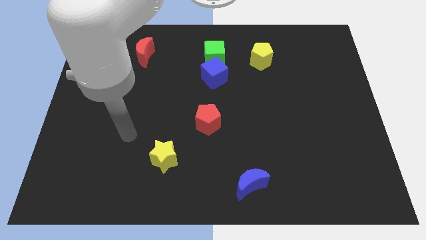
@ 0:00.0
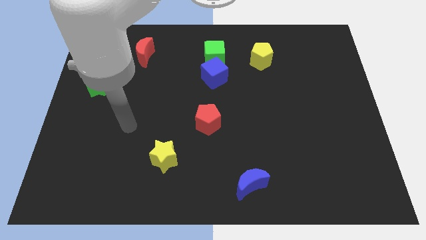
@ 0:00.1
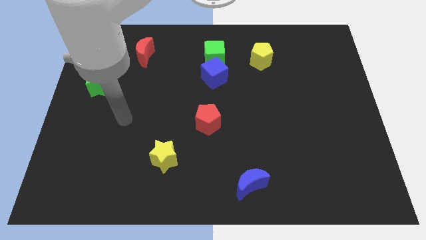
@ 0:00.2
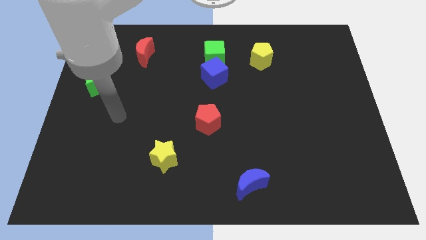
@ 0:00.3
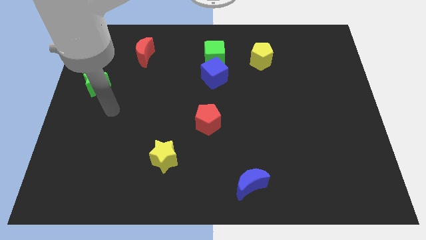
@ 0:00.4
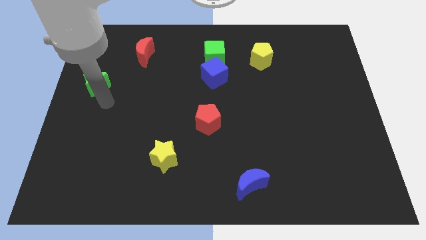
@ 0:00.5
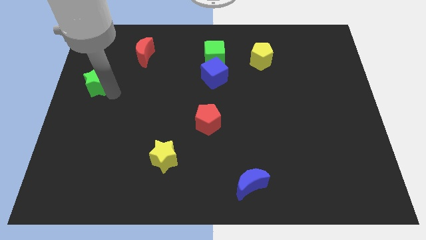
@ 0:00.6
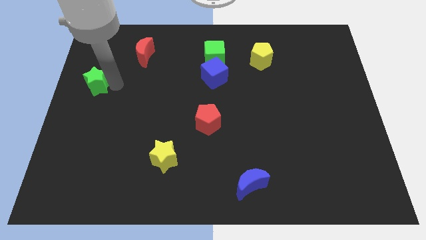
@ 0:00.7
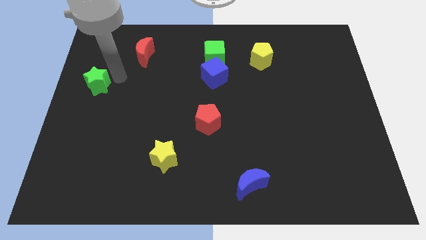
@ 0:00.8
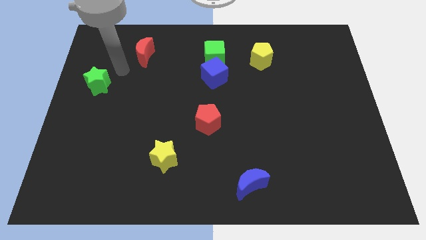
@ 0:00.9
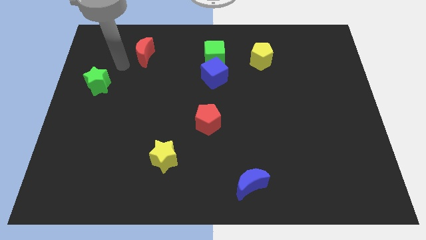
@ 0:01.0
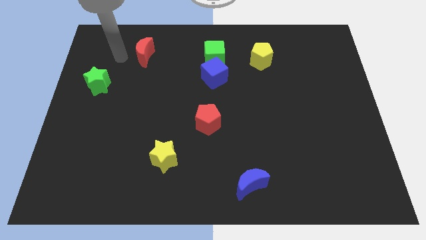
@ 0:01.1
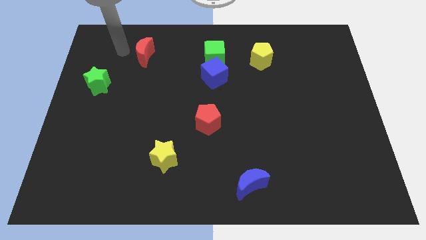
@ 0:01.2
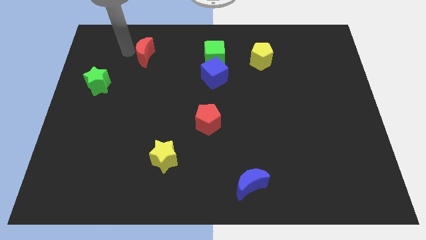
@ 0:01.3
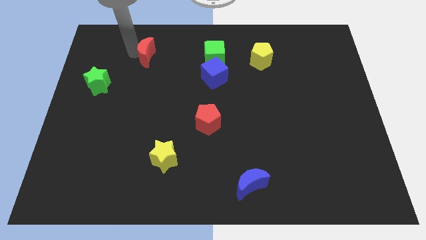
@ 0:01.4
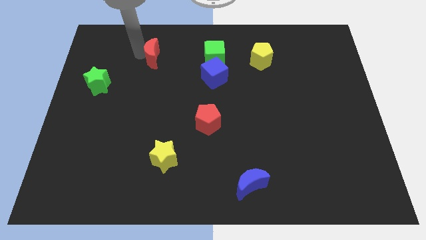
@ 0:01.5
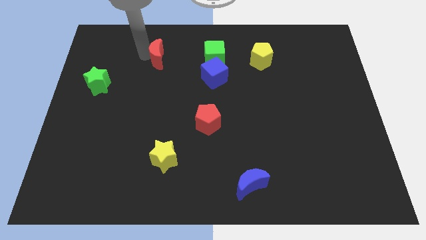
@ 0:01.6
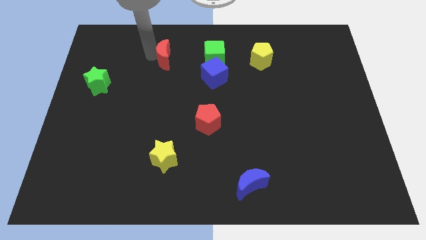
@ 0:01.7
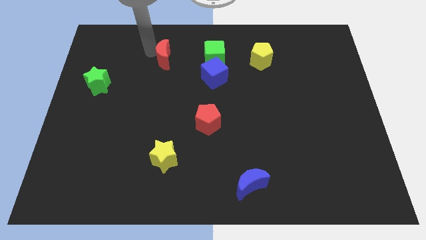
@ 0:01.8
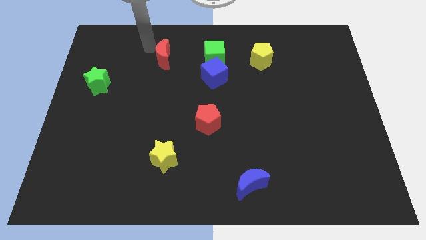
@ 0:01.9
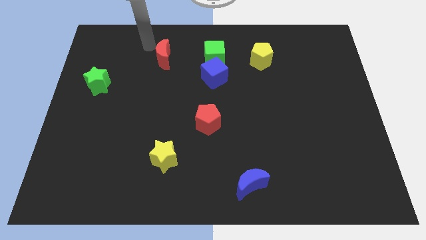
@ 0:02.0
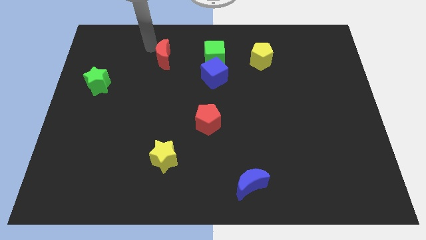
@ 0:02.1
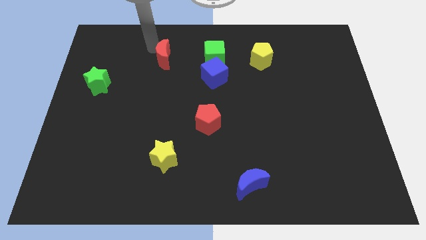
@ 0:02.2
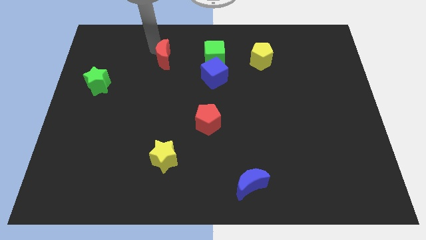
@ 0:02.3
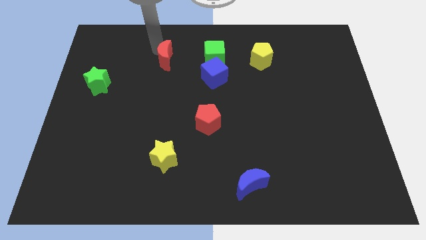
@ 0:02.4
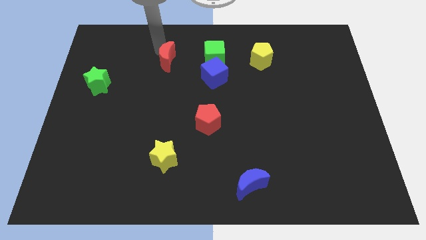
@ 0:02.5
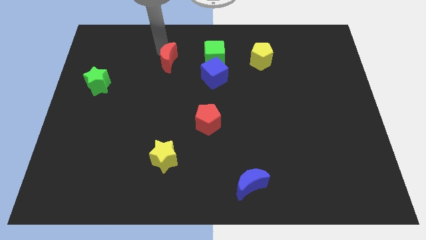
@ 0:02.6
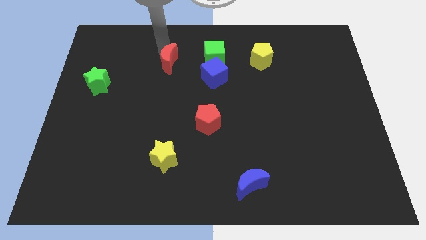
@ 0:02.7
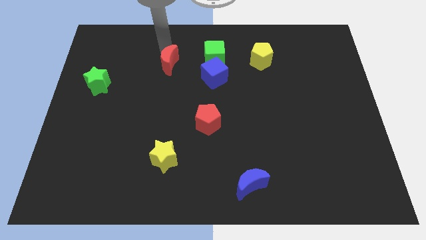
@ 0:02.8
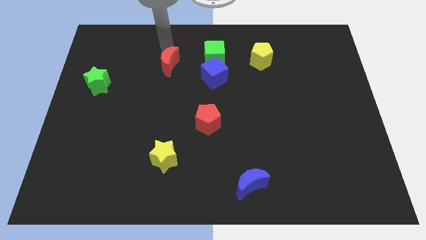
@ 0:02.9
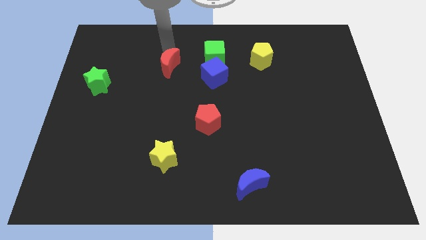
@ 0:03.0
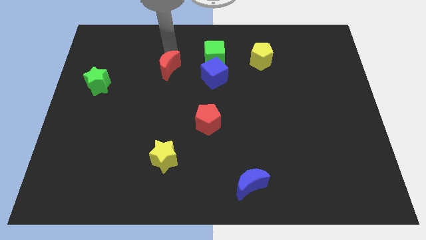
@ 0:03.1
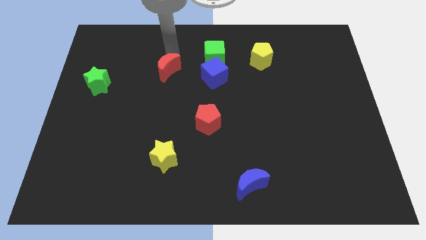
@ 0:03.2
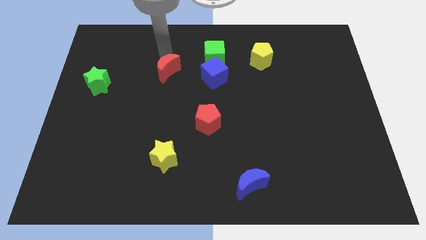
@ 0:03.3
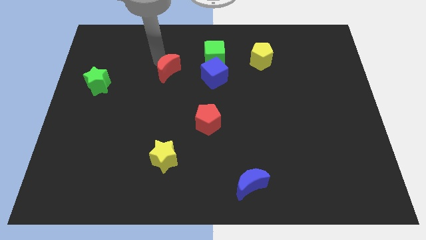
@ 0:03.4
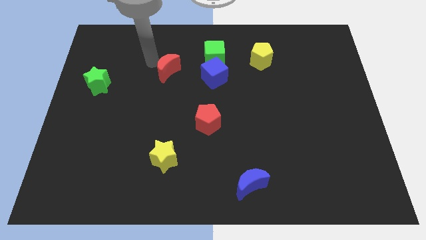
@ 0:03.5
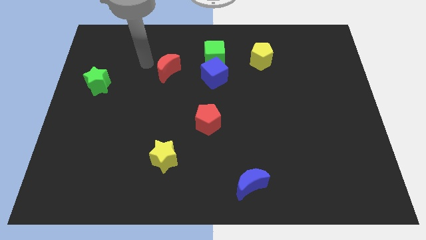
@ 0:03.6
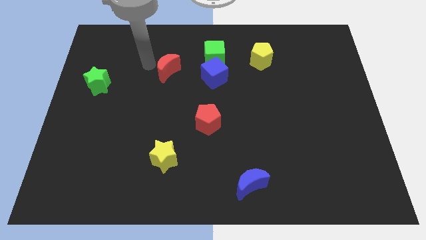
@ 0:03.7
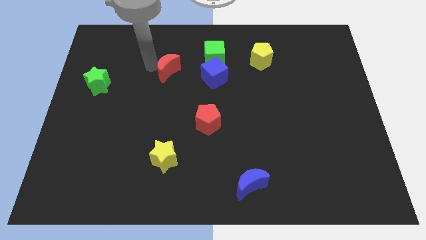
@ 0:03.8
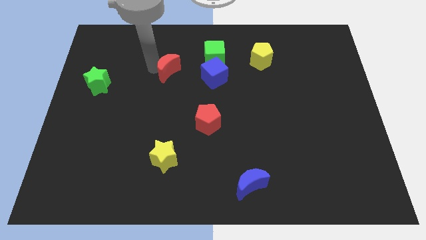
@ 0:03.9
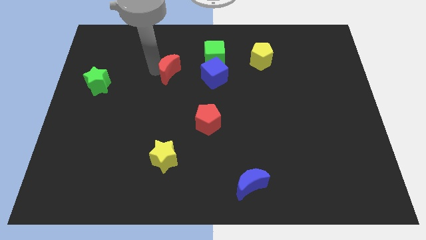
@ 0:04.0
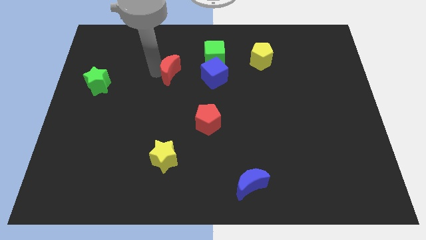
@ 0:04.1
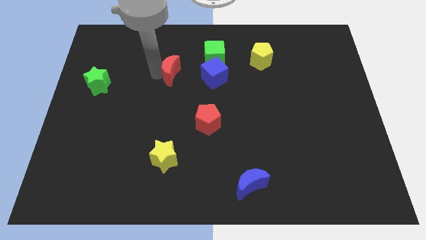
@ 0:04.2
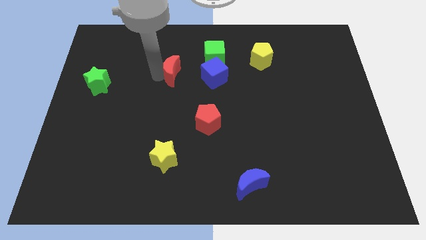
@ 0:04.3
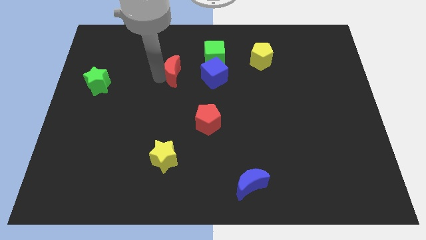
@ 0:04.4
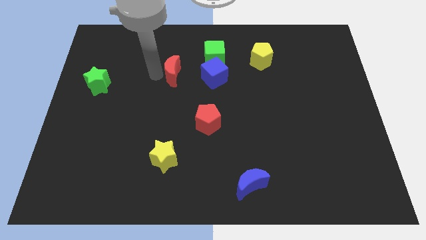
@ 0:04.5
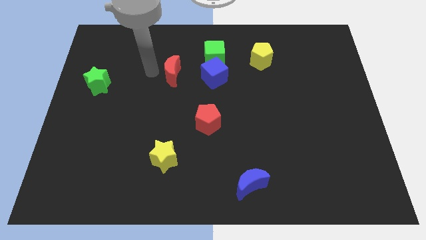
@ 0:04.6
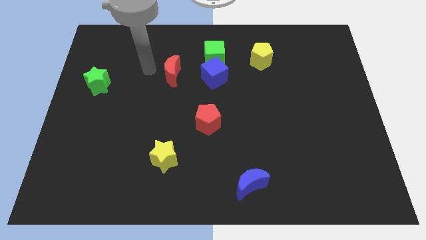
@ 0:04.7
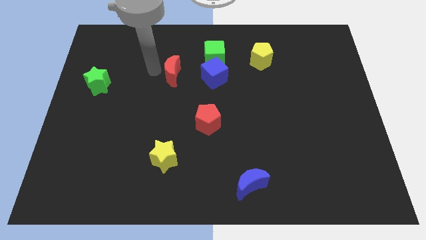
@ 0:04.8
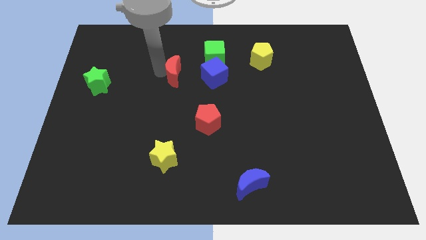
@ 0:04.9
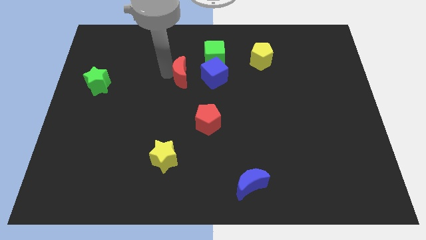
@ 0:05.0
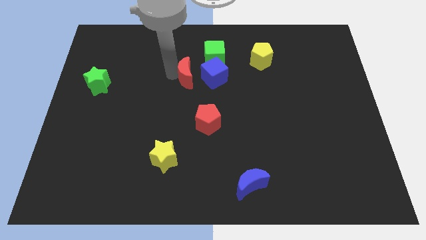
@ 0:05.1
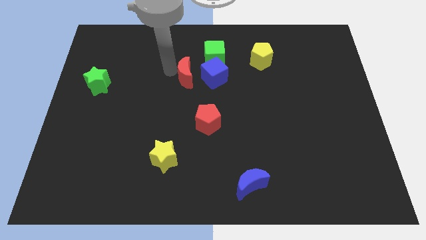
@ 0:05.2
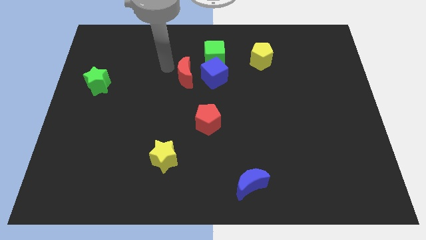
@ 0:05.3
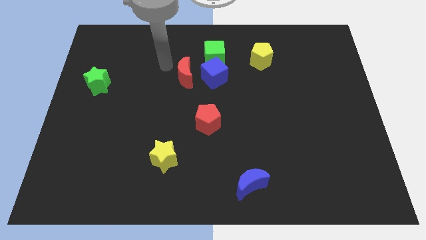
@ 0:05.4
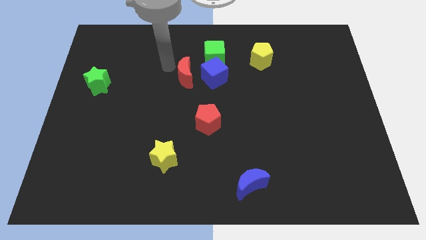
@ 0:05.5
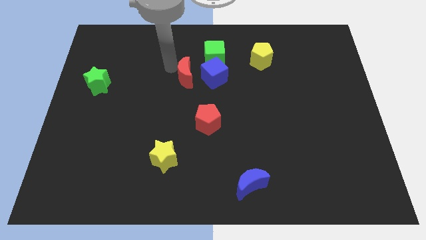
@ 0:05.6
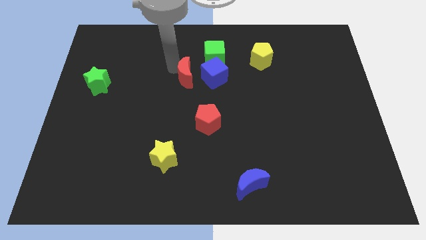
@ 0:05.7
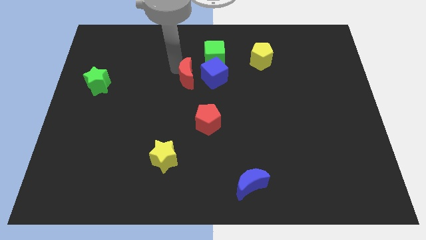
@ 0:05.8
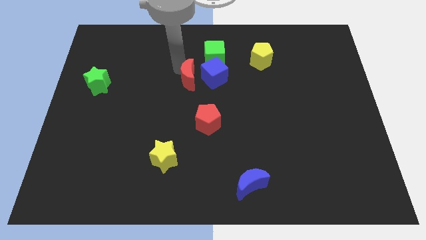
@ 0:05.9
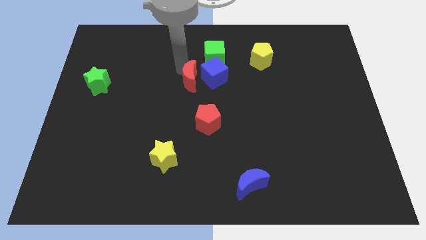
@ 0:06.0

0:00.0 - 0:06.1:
push the red moon to the top of the red pentagon

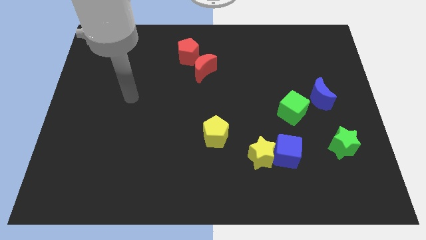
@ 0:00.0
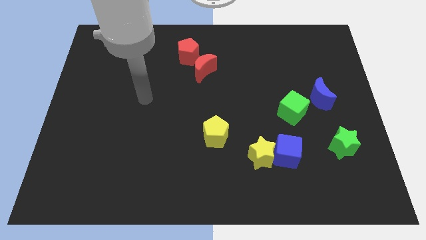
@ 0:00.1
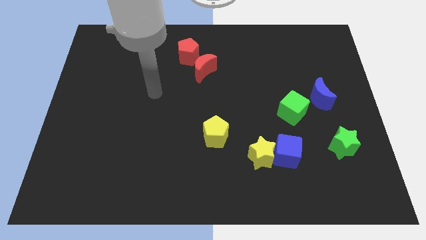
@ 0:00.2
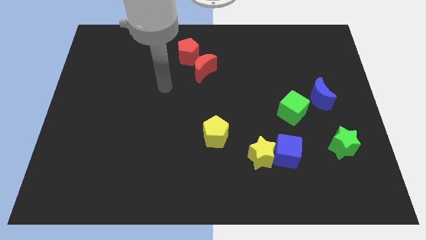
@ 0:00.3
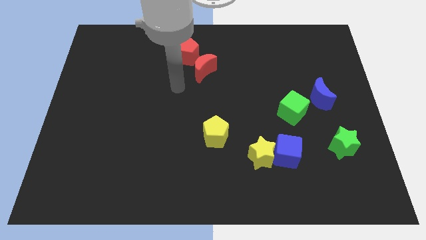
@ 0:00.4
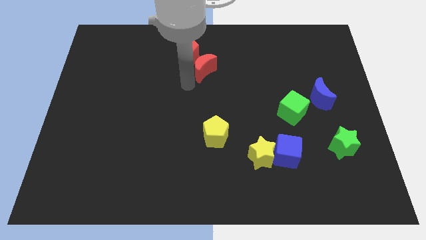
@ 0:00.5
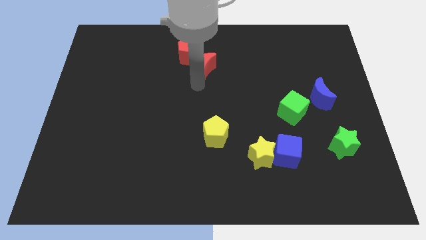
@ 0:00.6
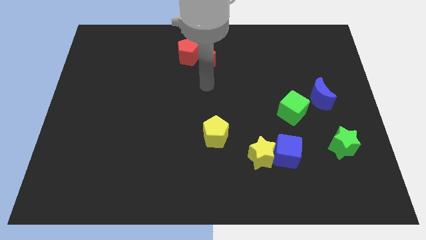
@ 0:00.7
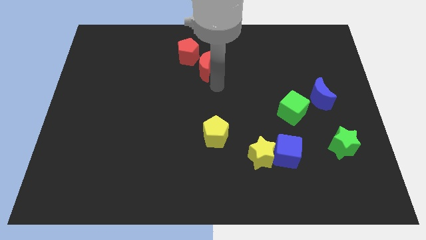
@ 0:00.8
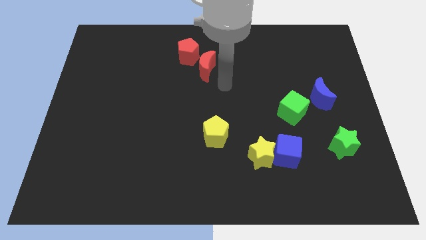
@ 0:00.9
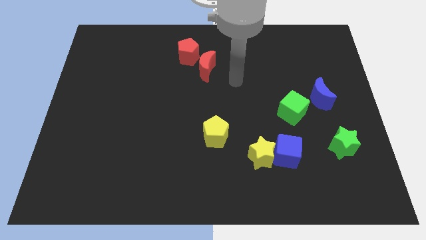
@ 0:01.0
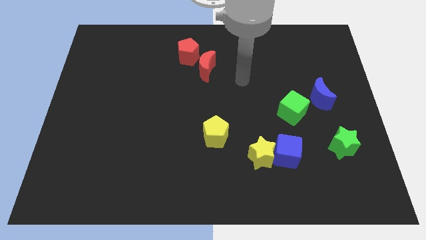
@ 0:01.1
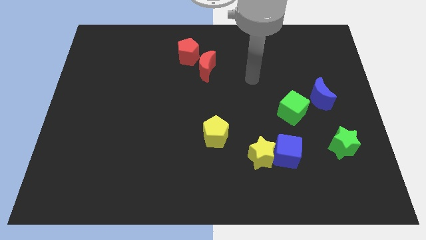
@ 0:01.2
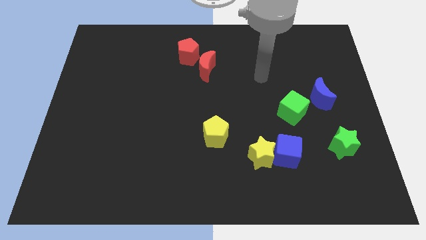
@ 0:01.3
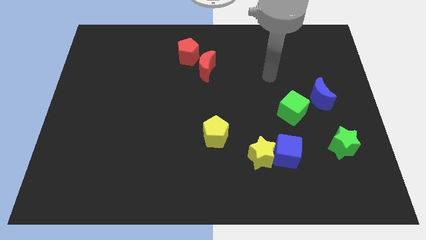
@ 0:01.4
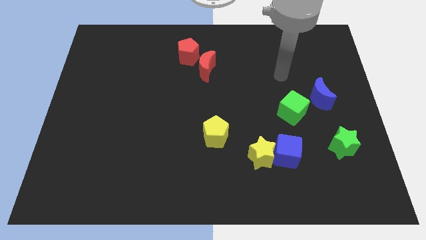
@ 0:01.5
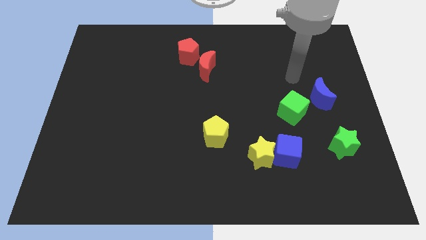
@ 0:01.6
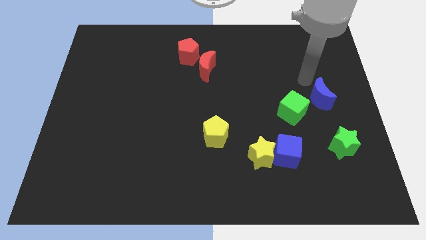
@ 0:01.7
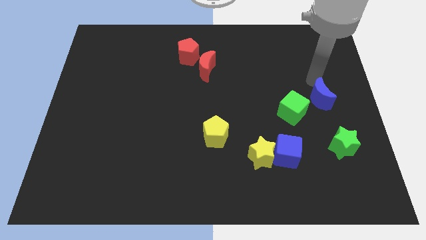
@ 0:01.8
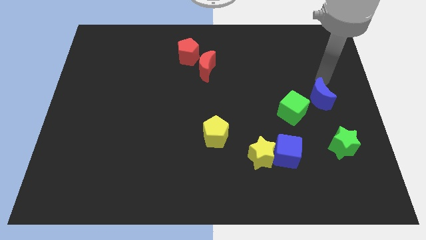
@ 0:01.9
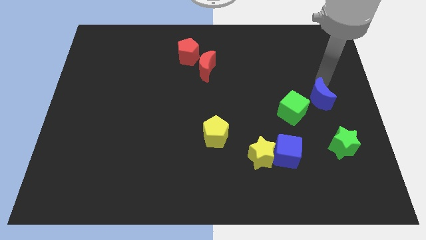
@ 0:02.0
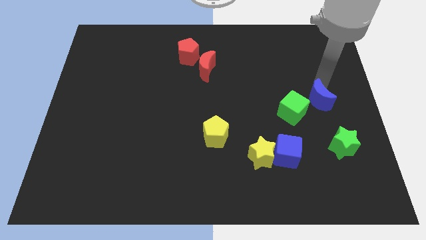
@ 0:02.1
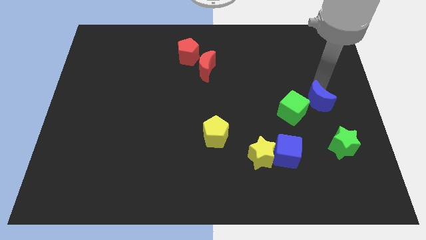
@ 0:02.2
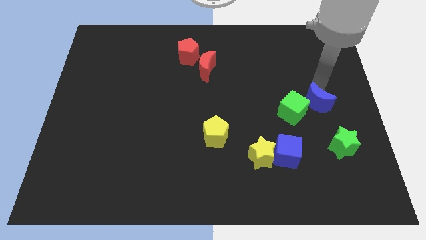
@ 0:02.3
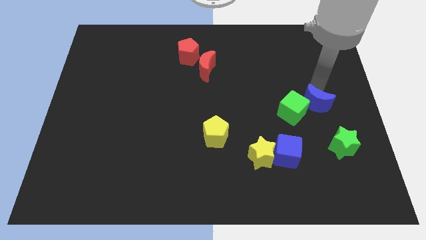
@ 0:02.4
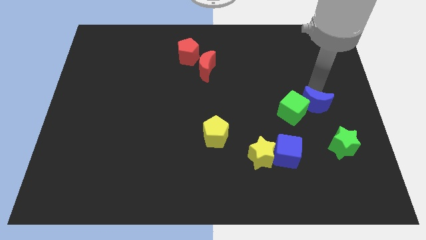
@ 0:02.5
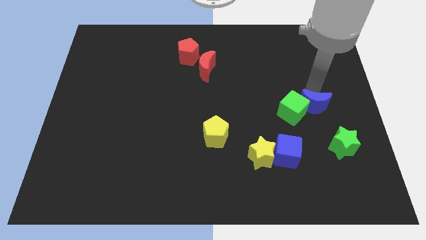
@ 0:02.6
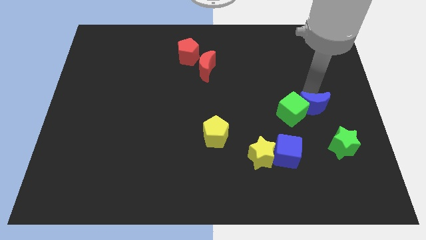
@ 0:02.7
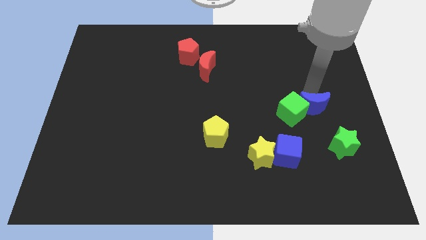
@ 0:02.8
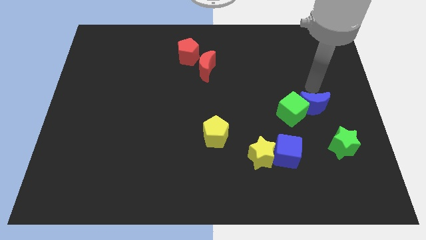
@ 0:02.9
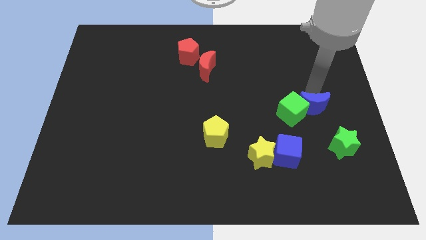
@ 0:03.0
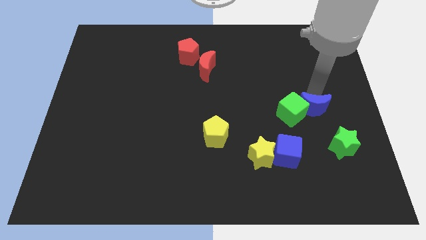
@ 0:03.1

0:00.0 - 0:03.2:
push the blue moon diagonally up and to the left of the green star
